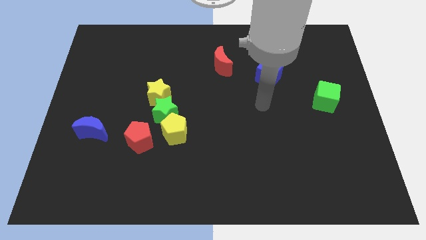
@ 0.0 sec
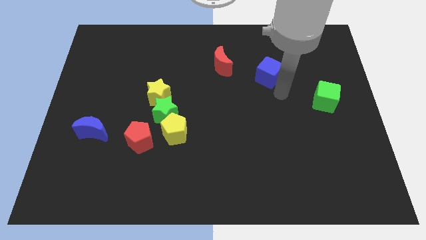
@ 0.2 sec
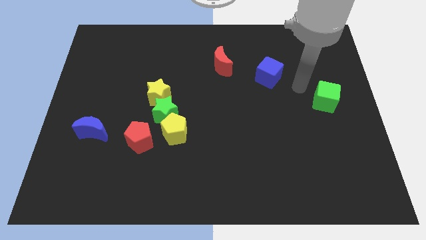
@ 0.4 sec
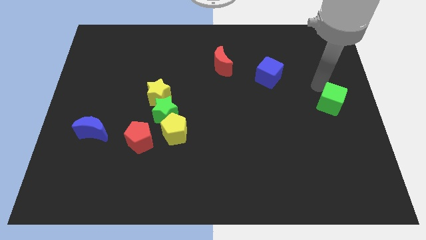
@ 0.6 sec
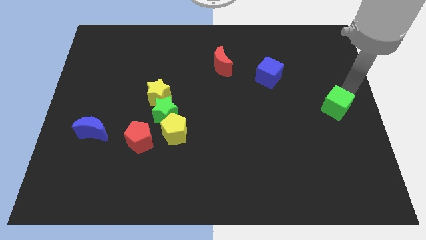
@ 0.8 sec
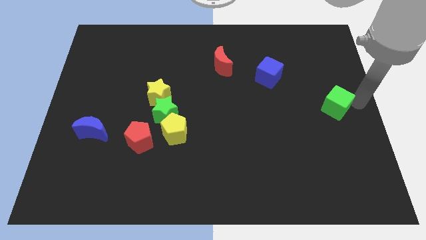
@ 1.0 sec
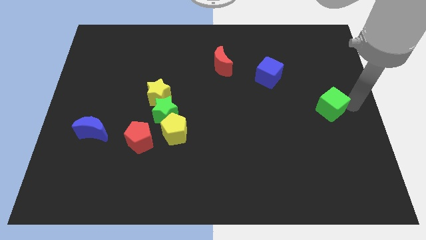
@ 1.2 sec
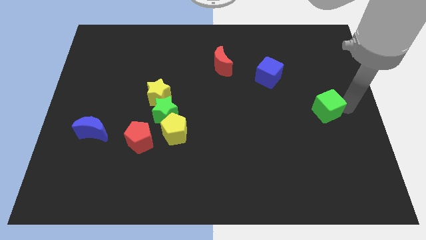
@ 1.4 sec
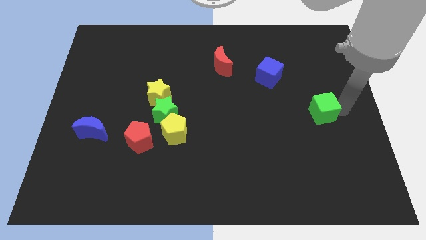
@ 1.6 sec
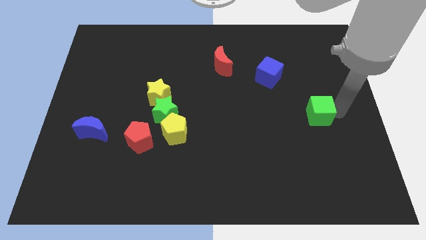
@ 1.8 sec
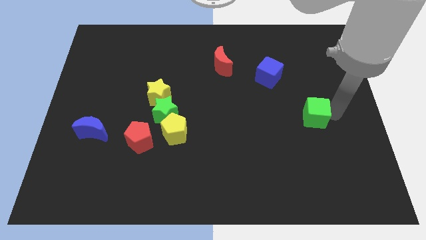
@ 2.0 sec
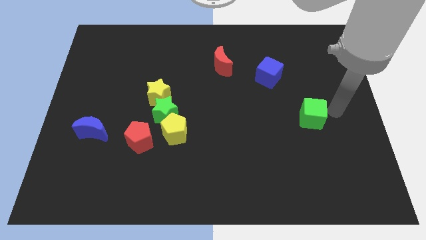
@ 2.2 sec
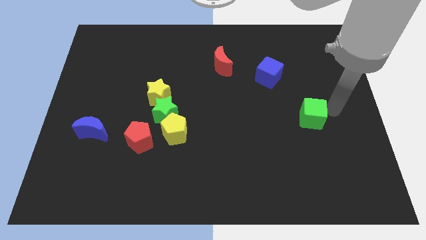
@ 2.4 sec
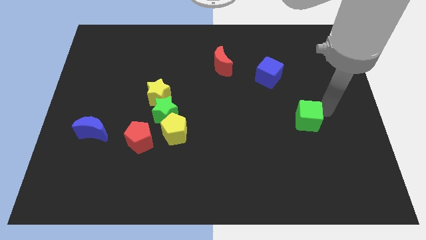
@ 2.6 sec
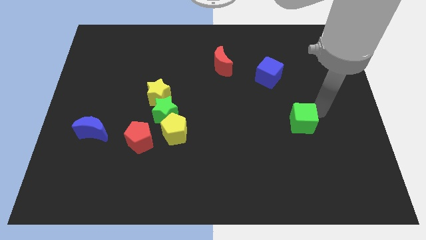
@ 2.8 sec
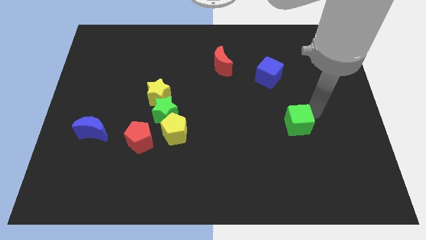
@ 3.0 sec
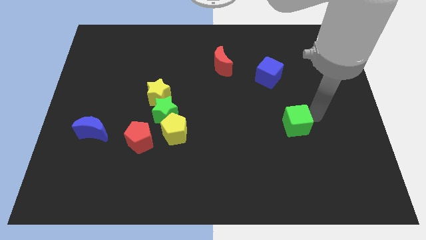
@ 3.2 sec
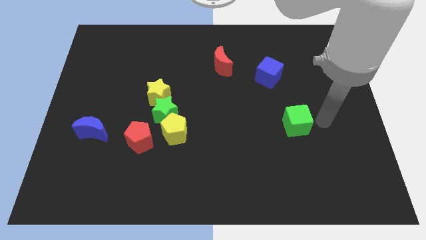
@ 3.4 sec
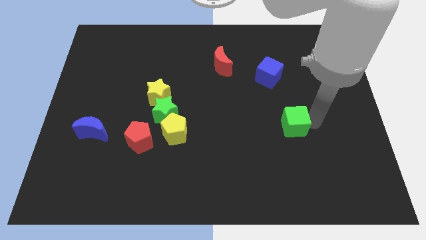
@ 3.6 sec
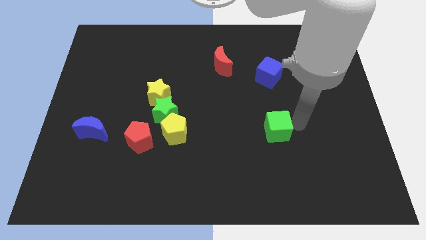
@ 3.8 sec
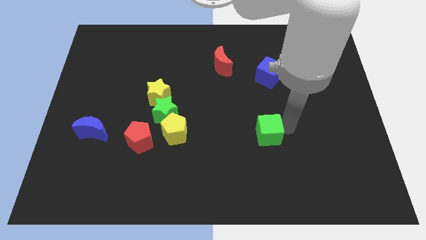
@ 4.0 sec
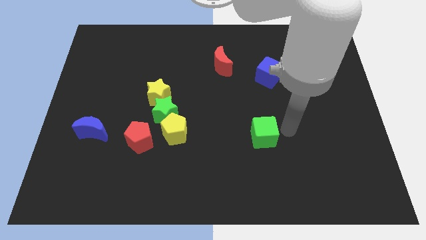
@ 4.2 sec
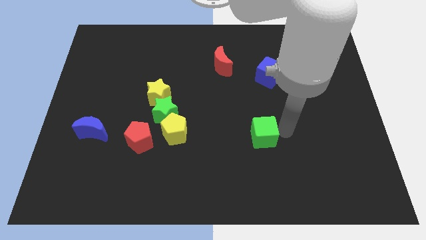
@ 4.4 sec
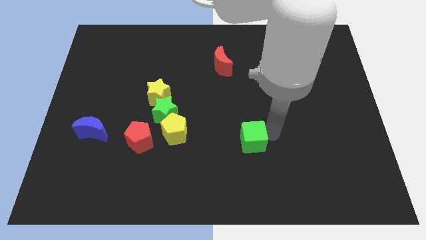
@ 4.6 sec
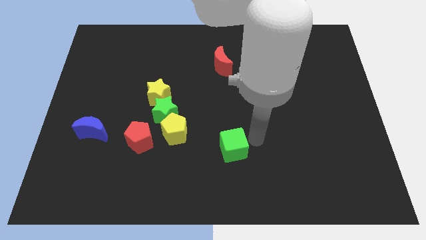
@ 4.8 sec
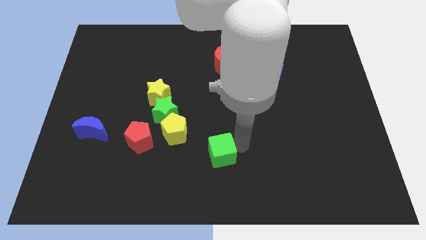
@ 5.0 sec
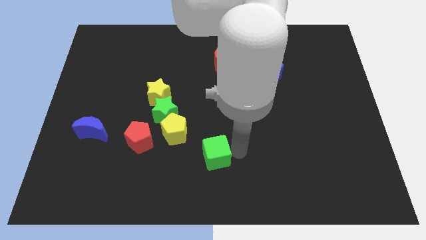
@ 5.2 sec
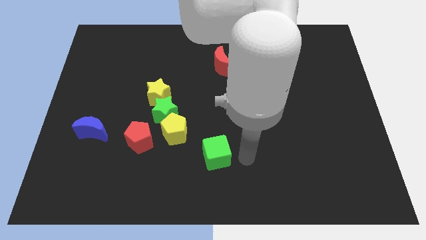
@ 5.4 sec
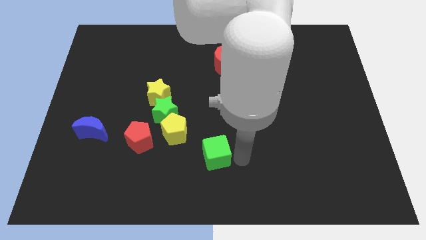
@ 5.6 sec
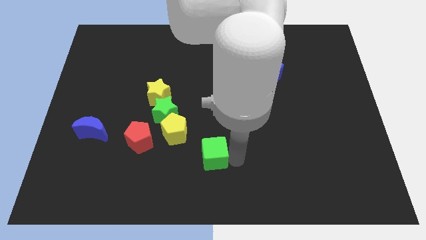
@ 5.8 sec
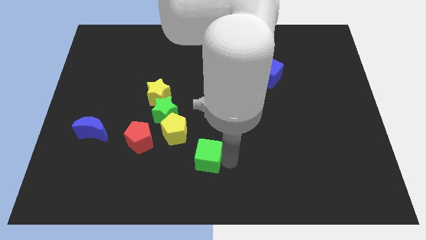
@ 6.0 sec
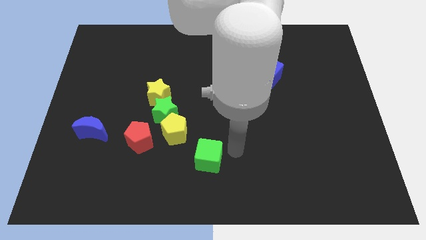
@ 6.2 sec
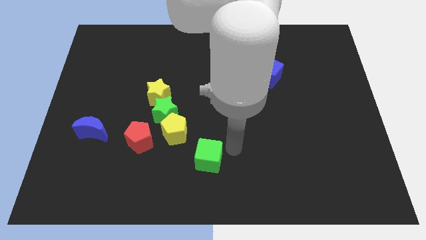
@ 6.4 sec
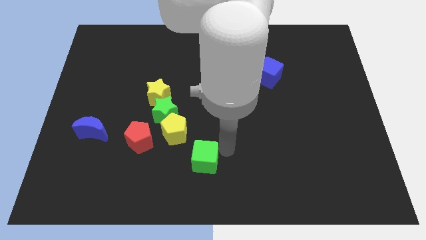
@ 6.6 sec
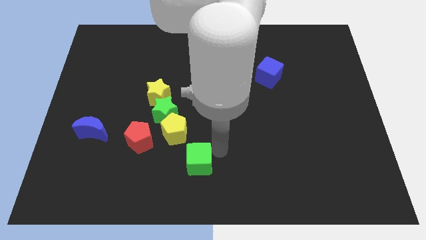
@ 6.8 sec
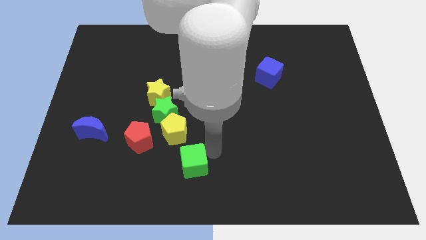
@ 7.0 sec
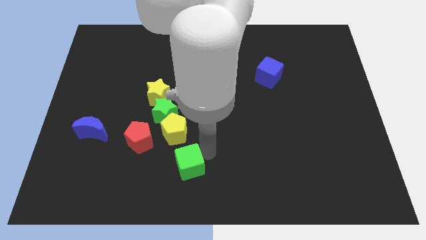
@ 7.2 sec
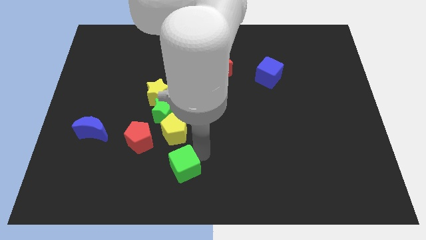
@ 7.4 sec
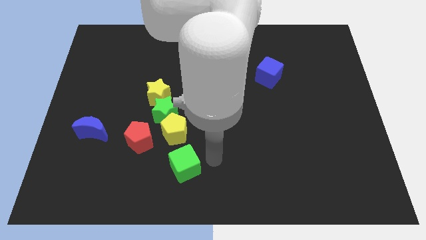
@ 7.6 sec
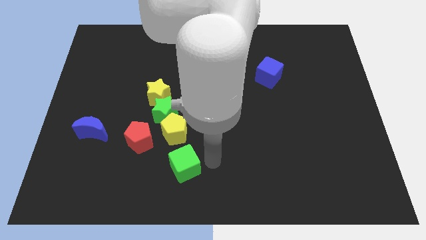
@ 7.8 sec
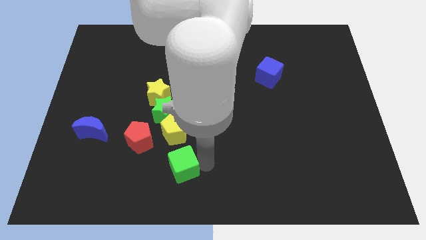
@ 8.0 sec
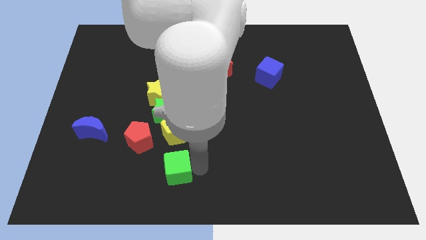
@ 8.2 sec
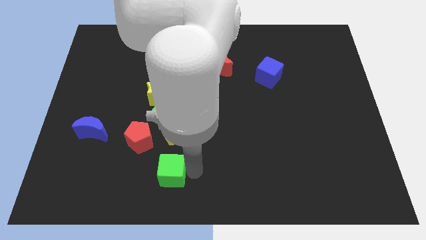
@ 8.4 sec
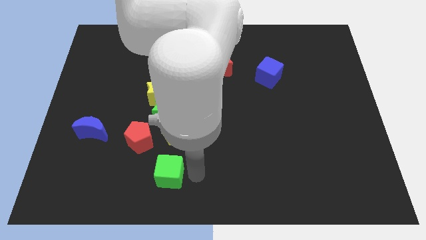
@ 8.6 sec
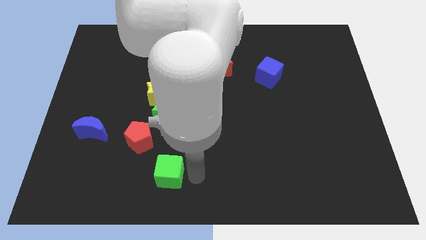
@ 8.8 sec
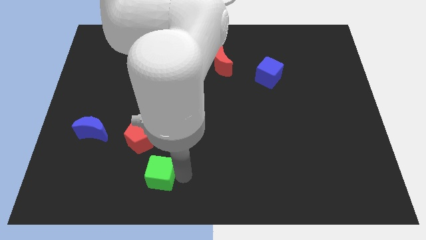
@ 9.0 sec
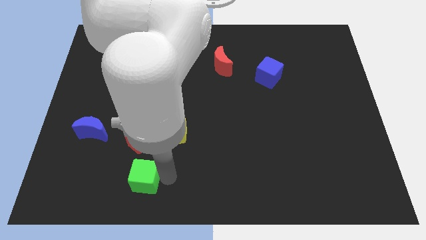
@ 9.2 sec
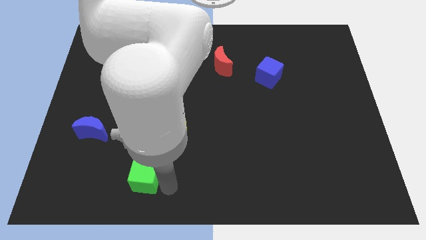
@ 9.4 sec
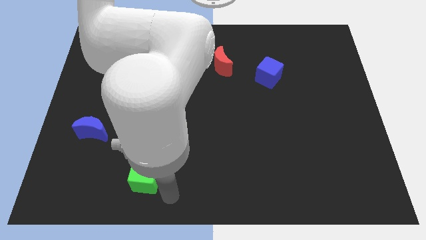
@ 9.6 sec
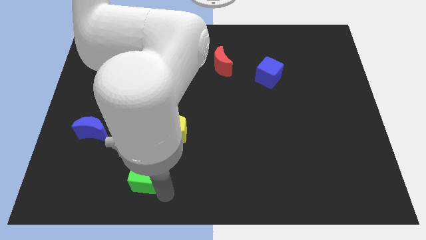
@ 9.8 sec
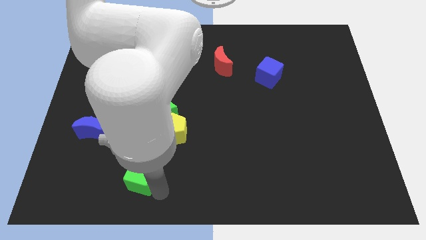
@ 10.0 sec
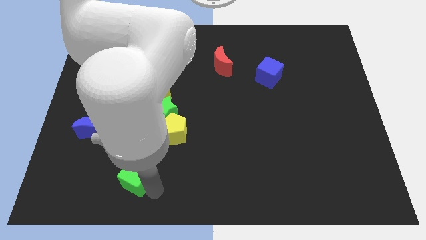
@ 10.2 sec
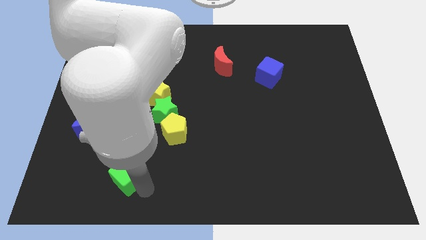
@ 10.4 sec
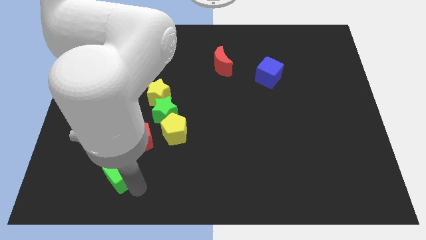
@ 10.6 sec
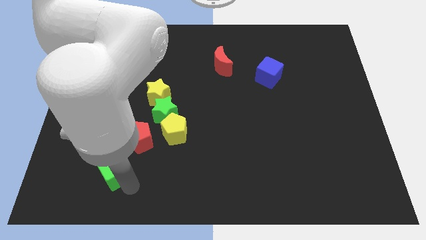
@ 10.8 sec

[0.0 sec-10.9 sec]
put the green cube to the bottom right of the blue moon

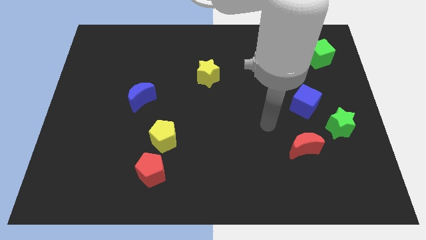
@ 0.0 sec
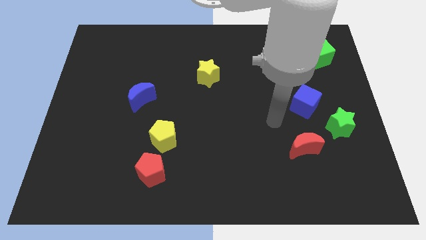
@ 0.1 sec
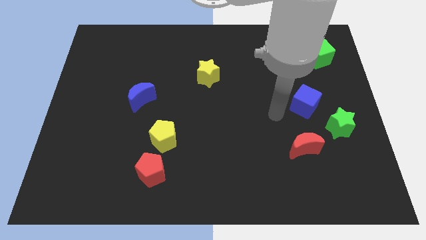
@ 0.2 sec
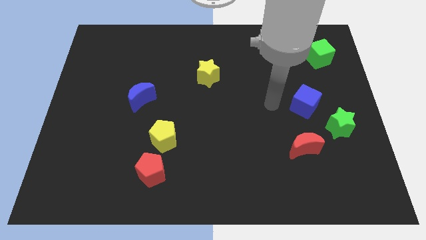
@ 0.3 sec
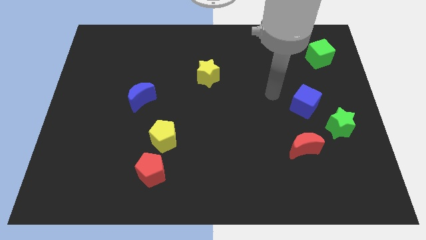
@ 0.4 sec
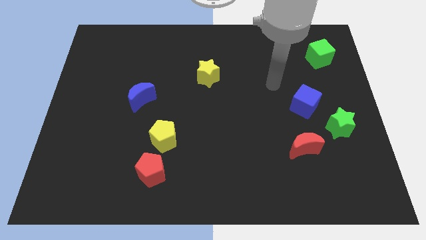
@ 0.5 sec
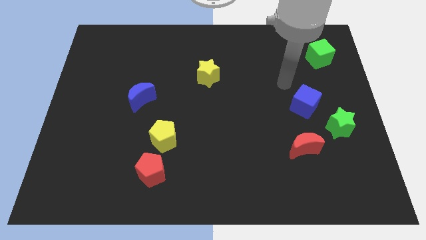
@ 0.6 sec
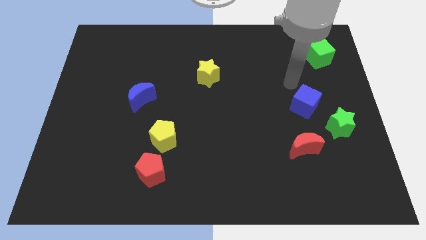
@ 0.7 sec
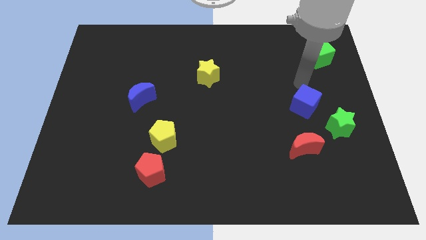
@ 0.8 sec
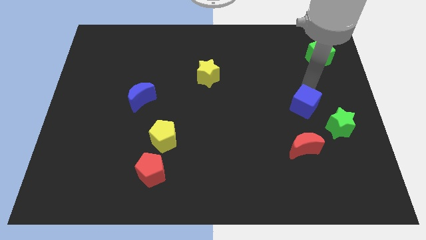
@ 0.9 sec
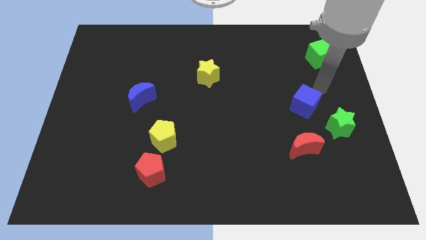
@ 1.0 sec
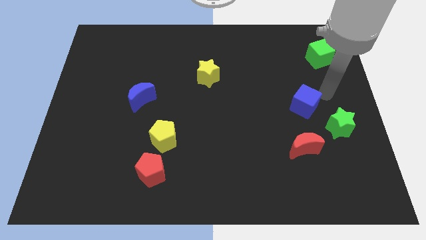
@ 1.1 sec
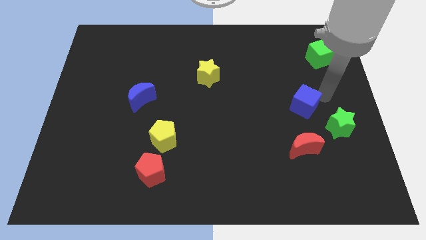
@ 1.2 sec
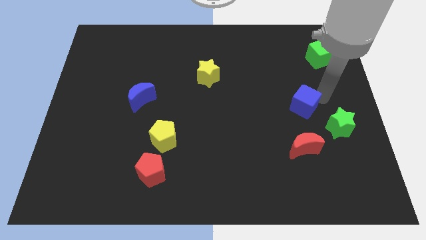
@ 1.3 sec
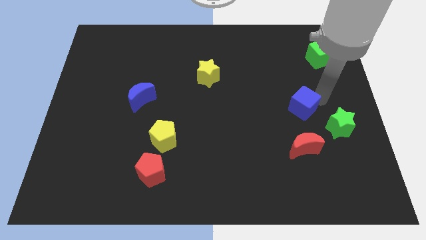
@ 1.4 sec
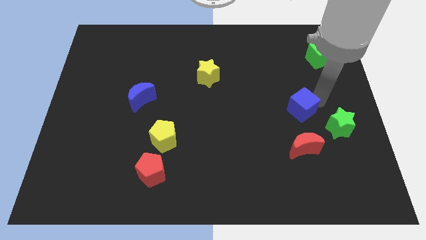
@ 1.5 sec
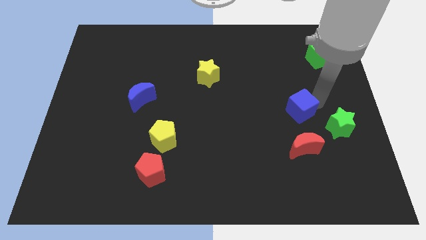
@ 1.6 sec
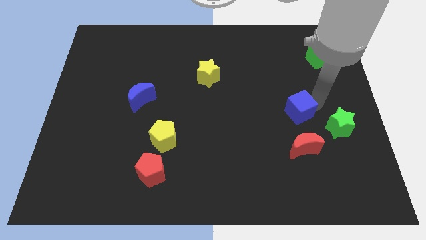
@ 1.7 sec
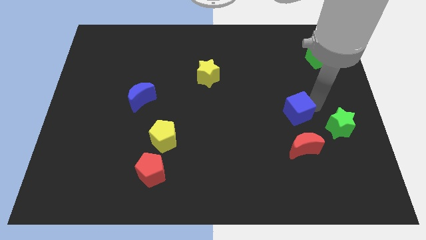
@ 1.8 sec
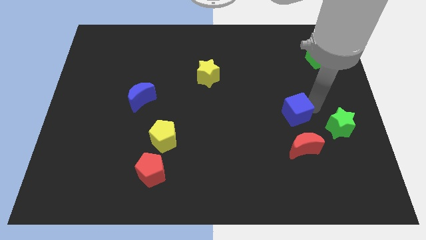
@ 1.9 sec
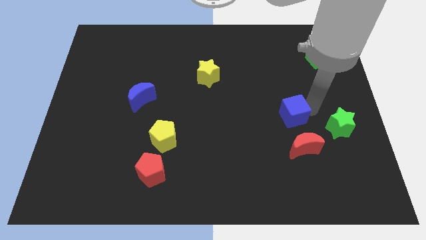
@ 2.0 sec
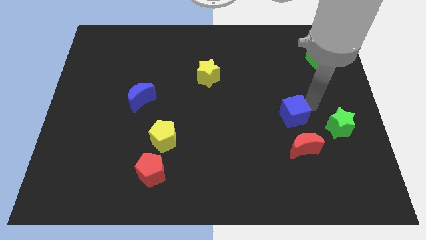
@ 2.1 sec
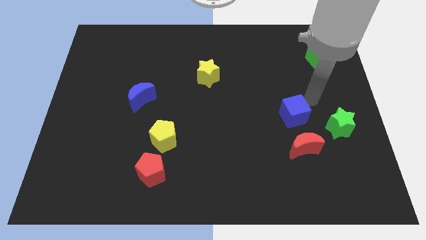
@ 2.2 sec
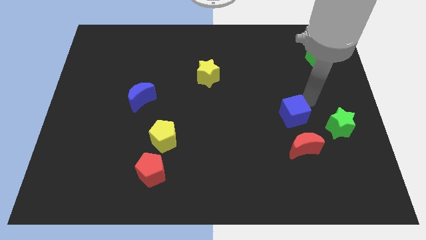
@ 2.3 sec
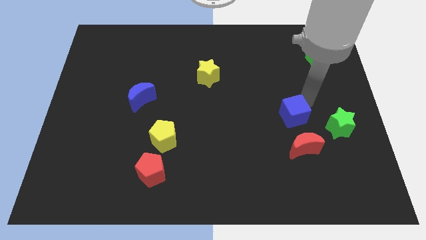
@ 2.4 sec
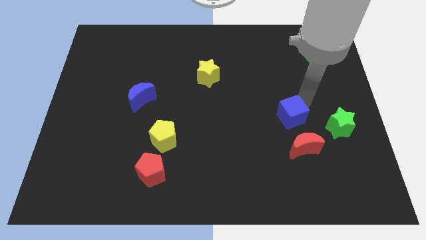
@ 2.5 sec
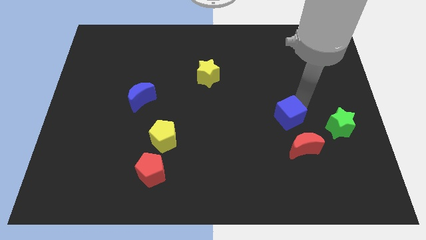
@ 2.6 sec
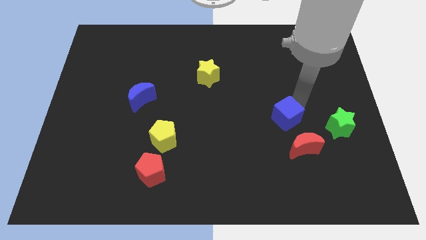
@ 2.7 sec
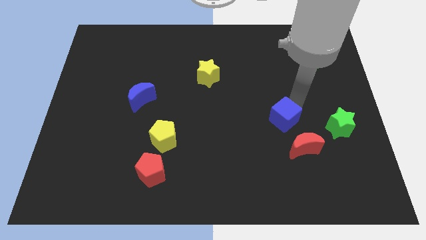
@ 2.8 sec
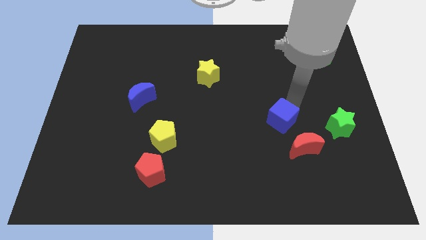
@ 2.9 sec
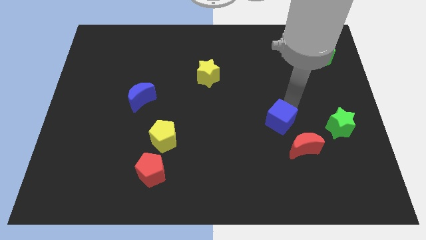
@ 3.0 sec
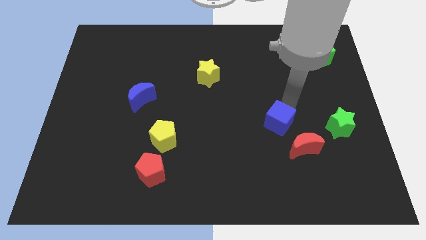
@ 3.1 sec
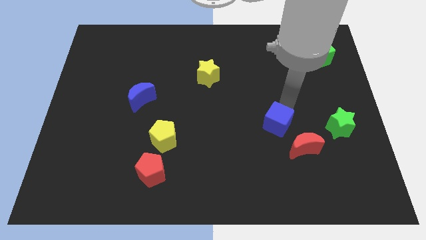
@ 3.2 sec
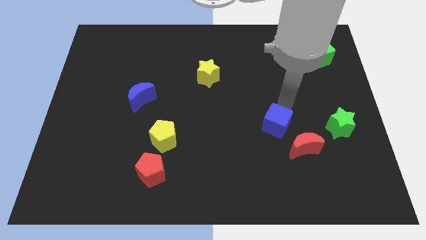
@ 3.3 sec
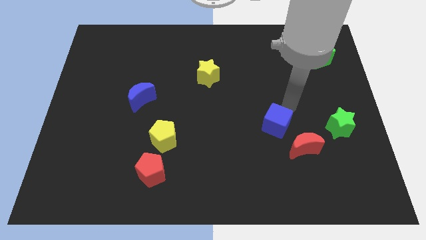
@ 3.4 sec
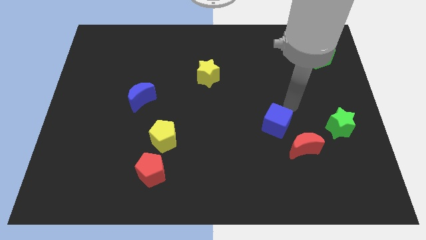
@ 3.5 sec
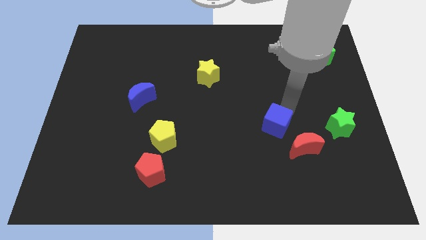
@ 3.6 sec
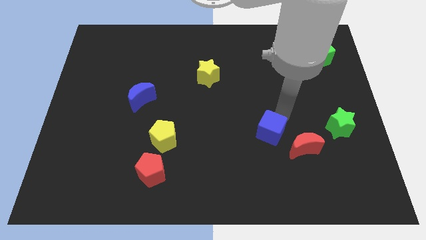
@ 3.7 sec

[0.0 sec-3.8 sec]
move the blue cube to the left of the red moon
